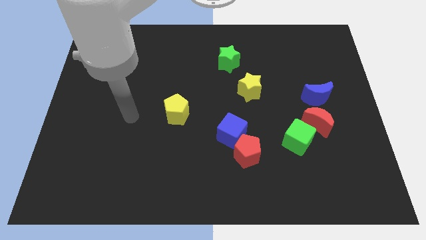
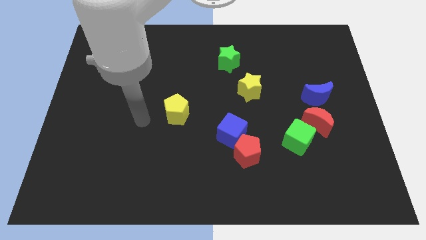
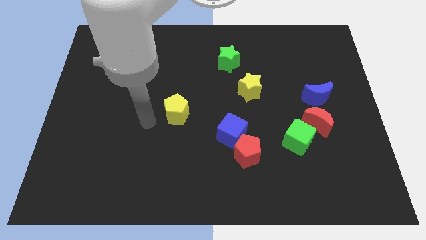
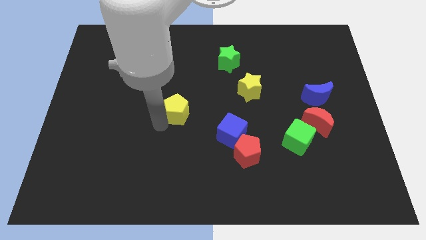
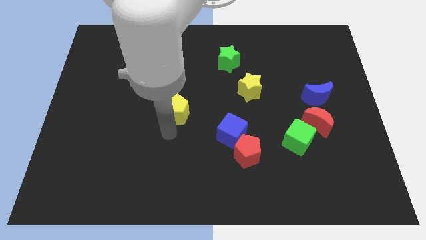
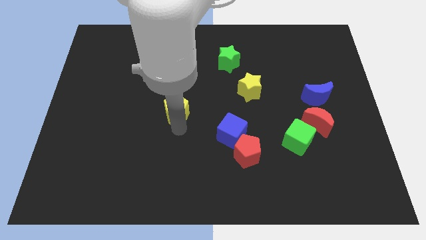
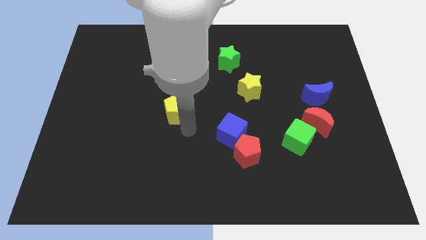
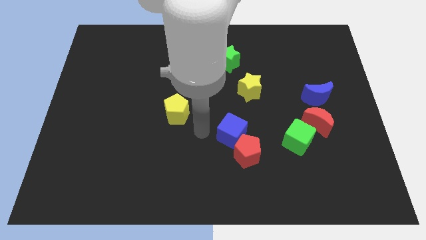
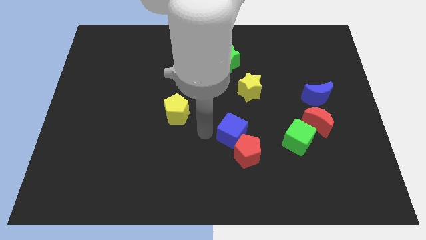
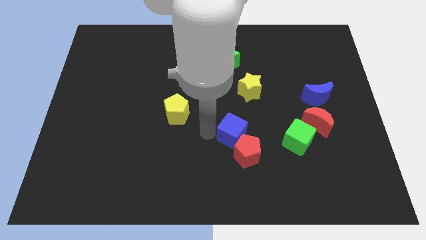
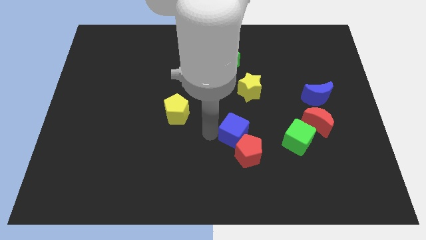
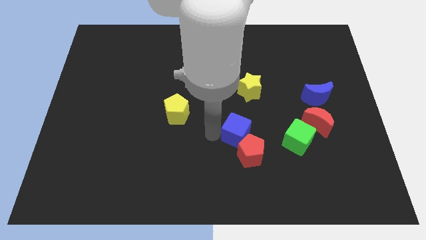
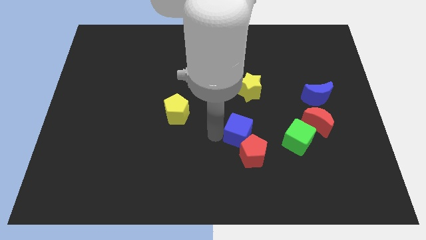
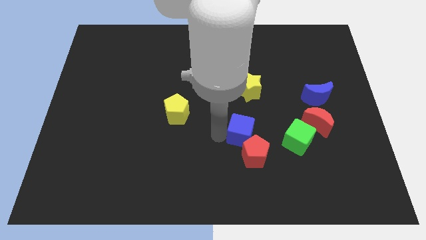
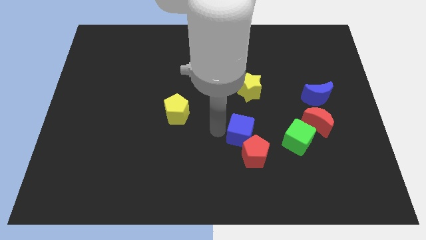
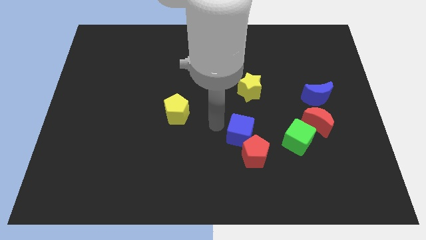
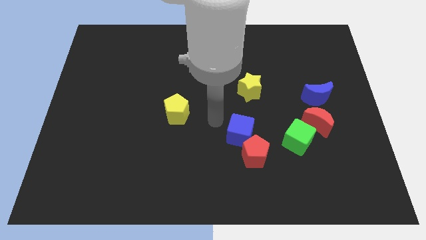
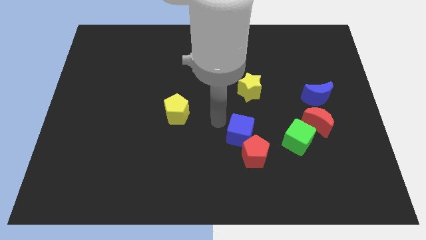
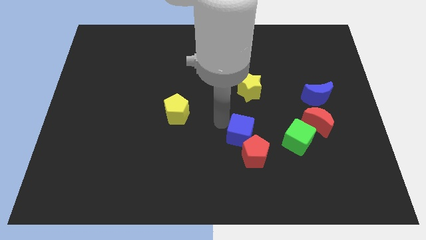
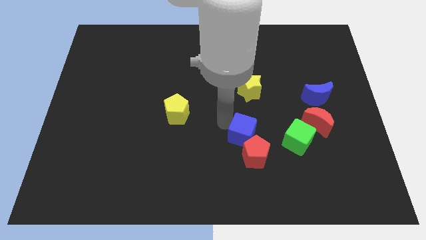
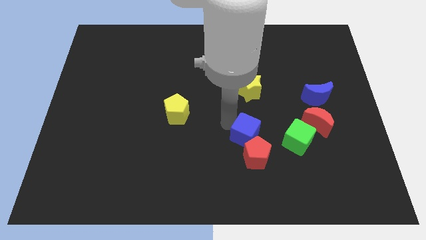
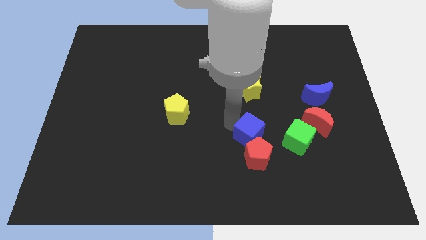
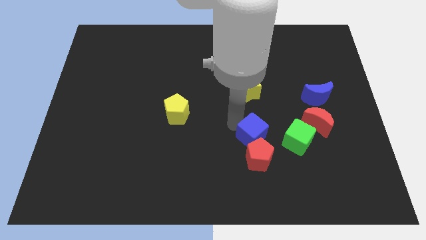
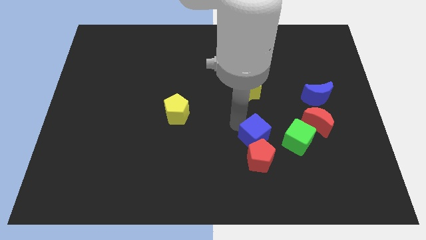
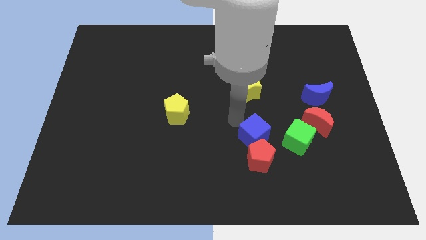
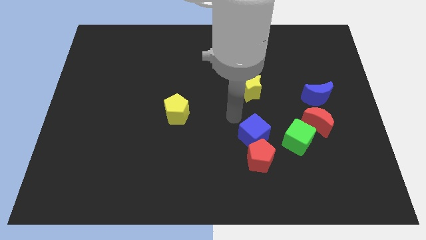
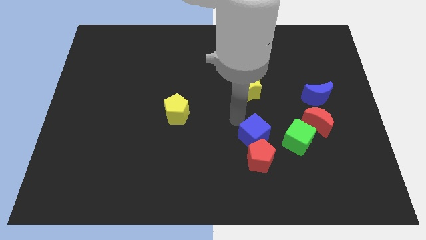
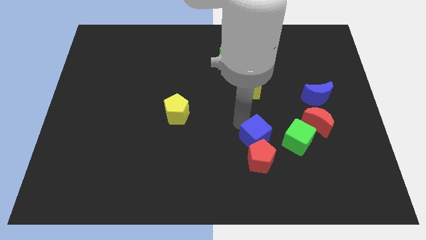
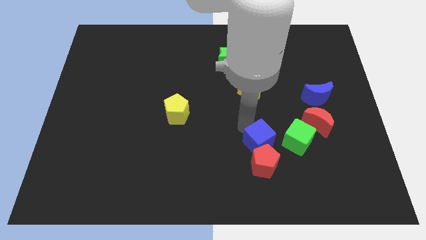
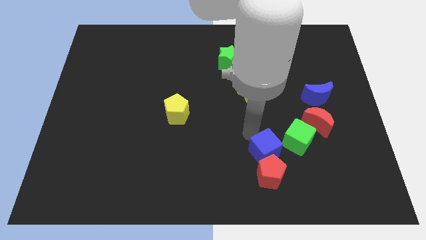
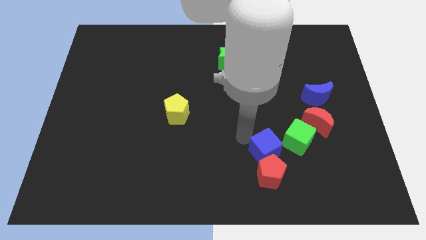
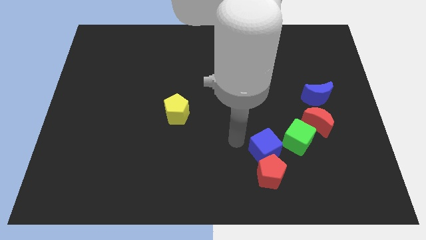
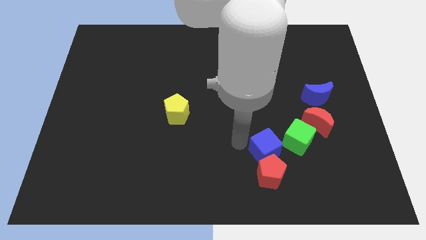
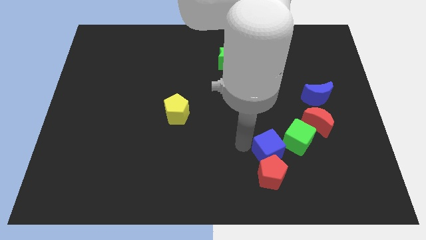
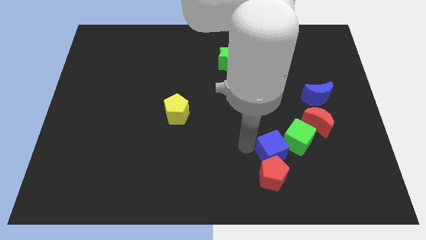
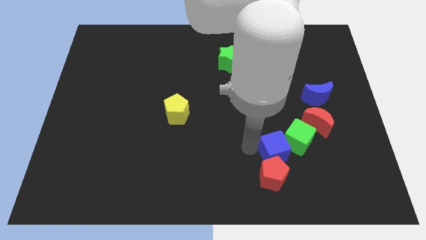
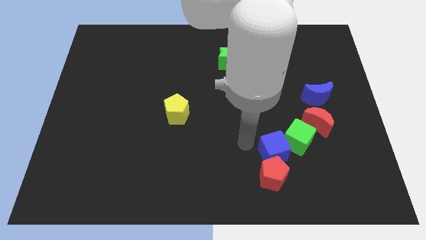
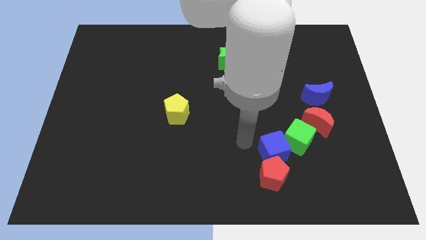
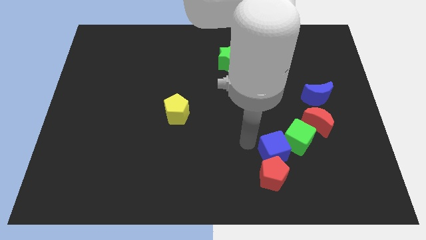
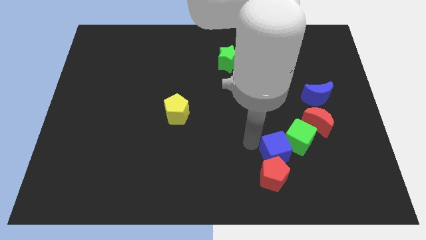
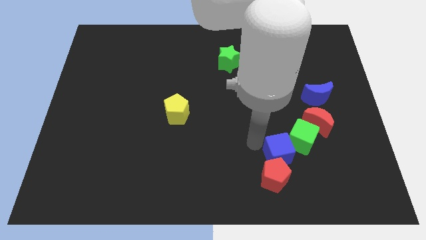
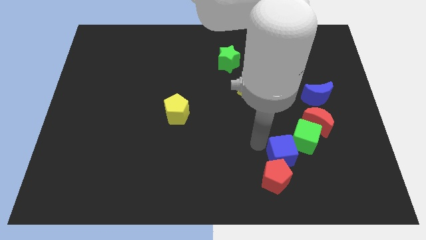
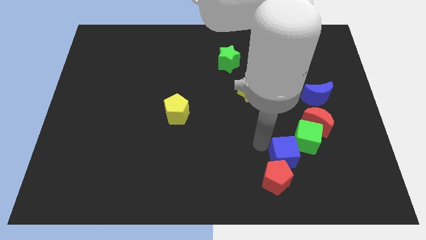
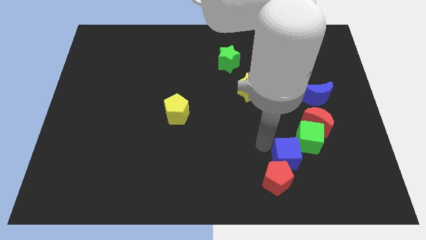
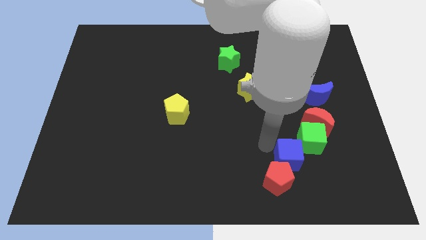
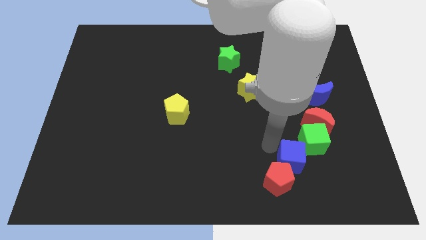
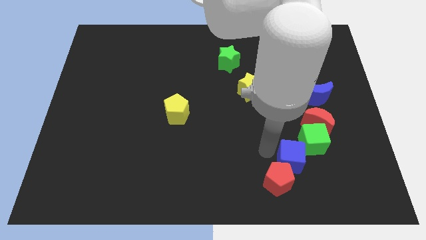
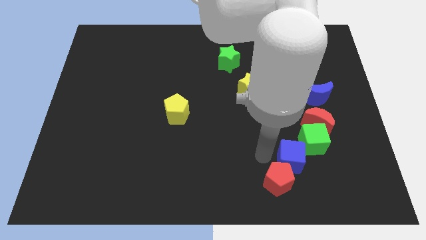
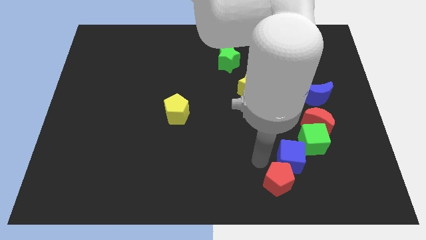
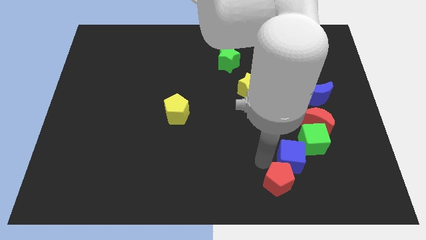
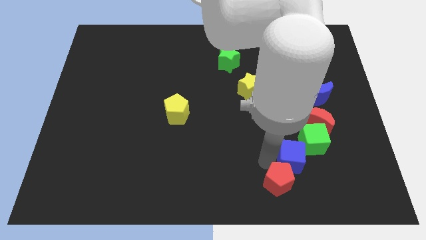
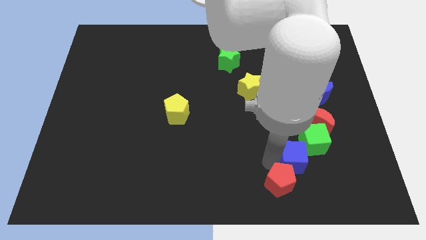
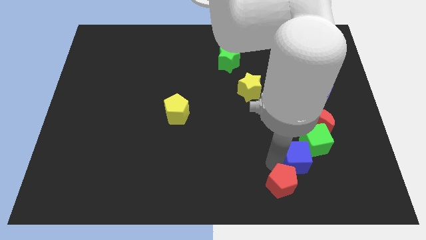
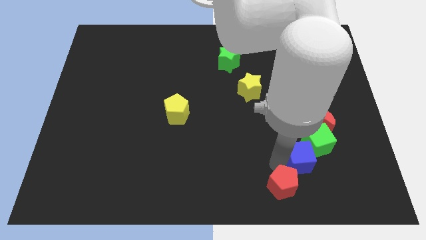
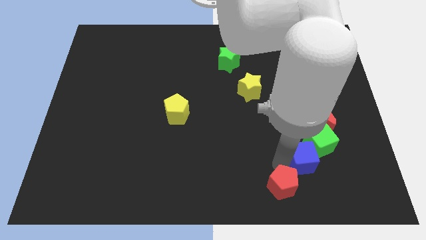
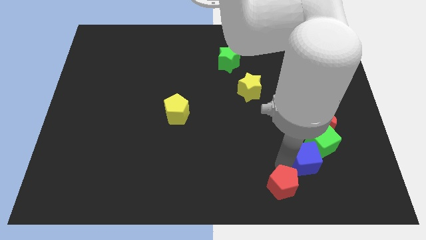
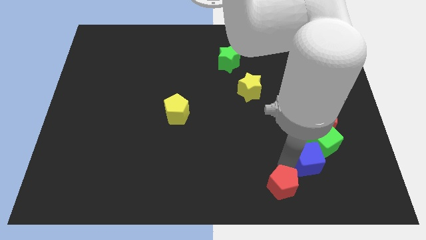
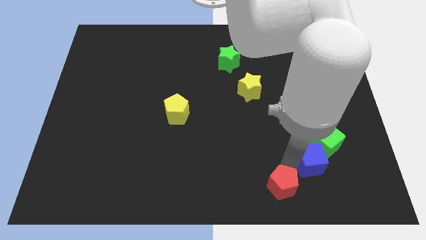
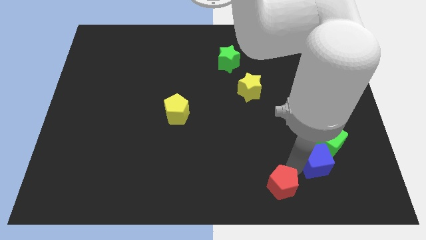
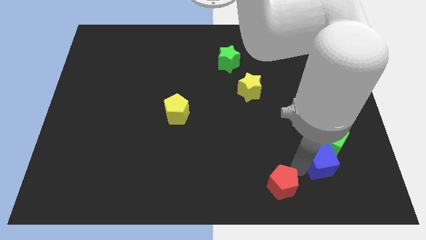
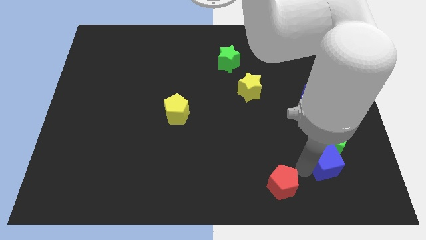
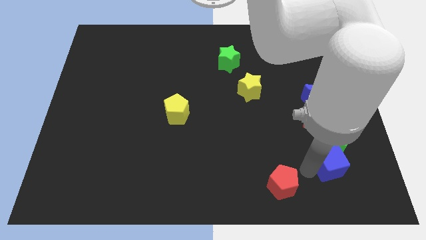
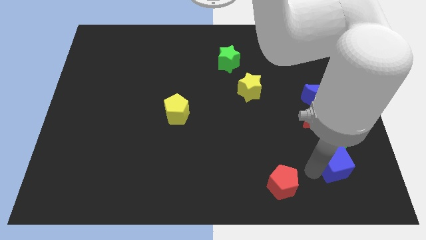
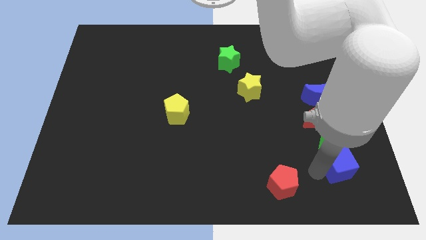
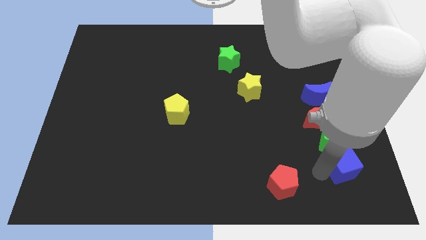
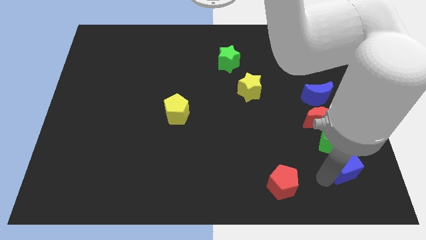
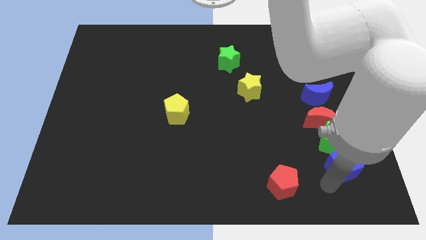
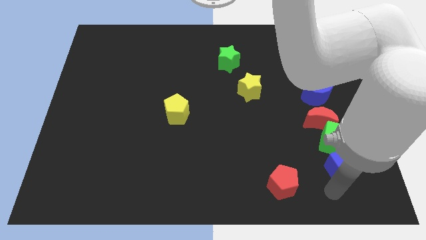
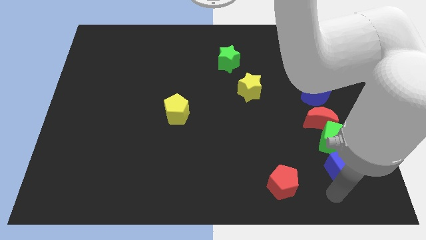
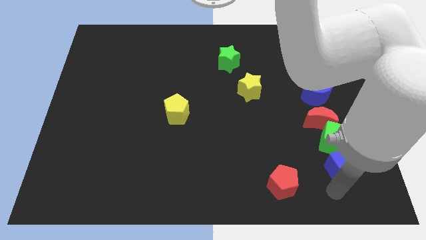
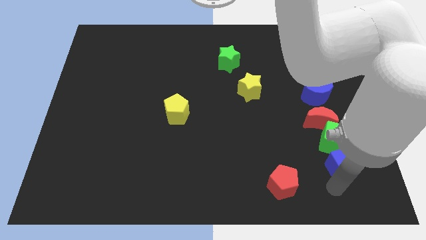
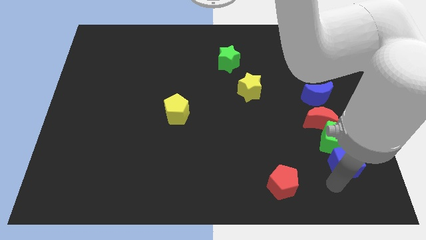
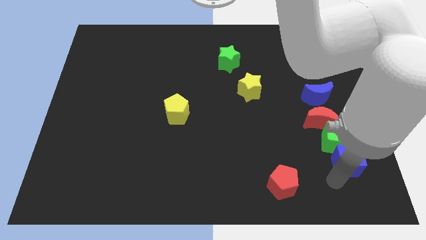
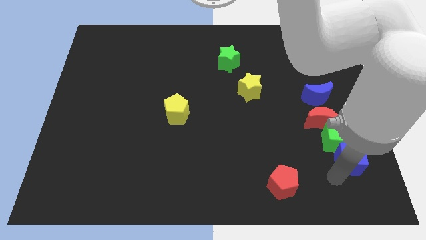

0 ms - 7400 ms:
slide the blue cube diagonally down and to the right of the red moon
